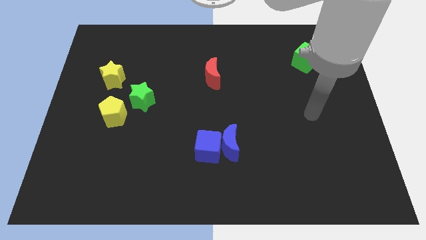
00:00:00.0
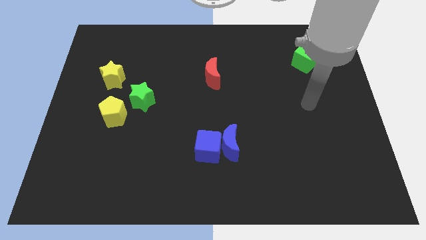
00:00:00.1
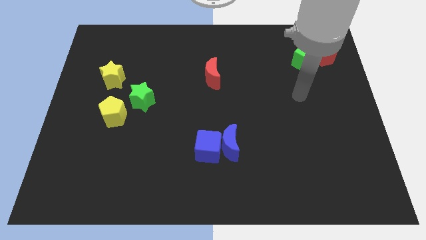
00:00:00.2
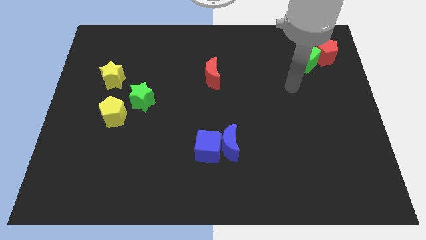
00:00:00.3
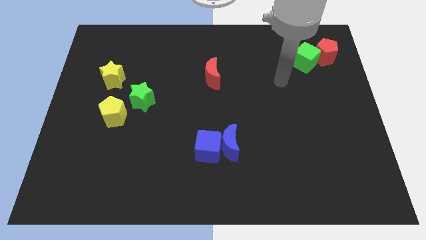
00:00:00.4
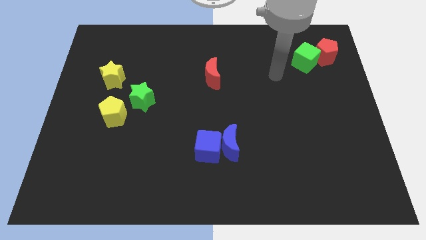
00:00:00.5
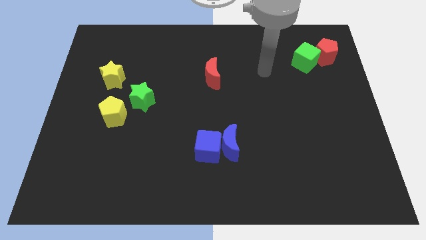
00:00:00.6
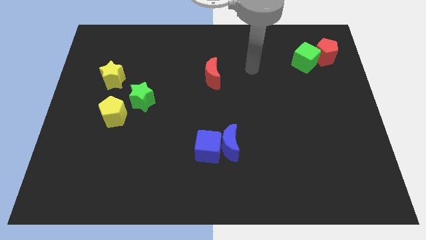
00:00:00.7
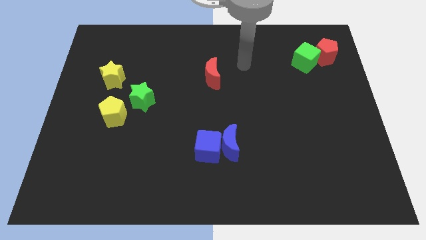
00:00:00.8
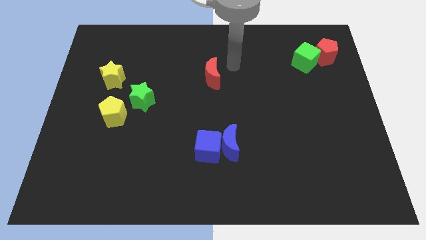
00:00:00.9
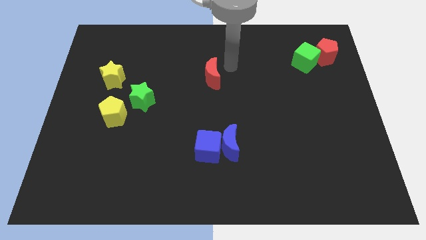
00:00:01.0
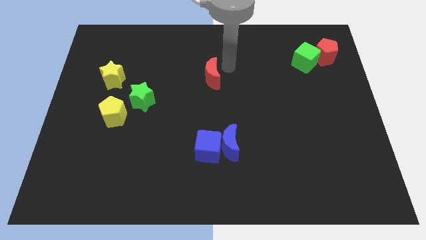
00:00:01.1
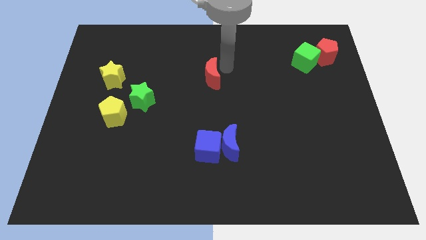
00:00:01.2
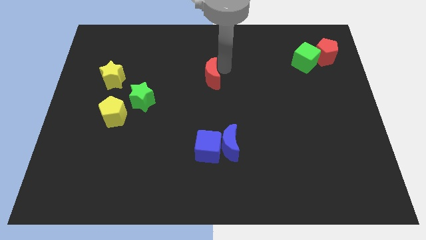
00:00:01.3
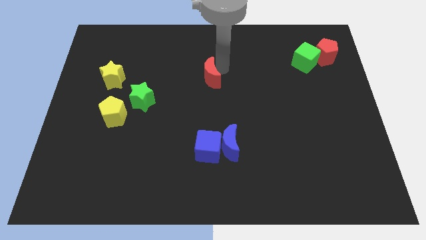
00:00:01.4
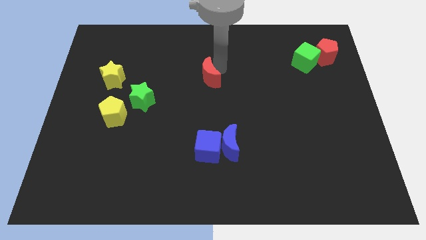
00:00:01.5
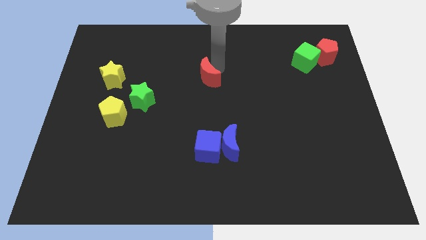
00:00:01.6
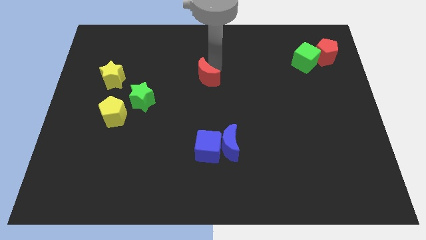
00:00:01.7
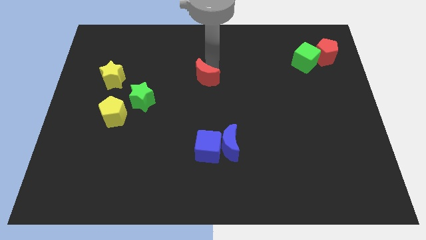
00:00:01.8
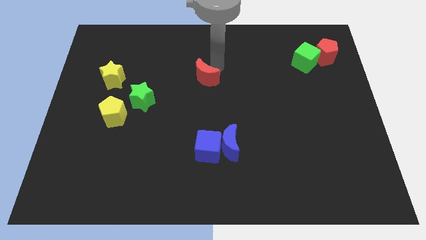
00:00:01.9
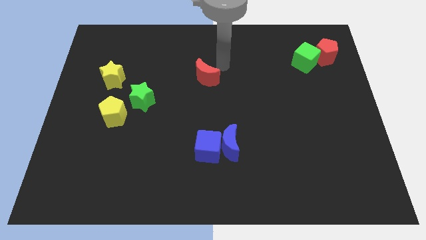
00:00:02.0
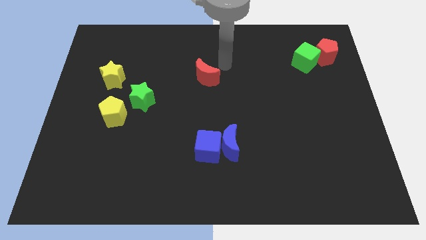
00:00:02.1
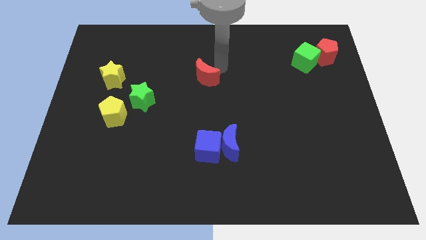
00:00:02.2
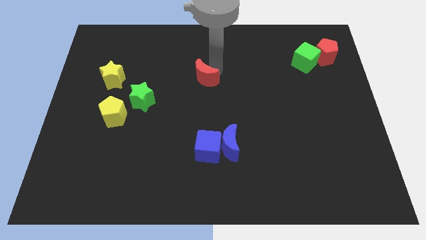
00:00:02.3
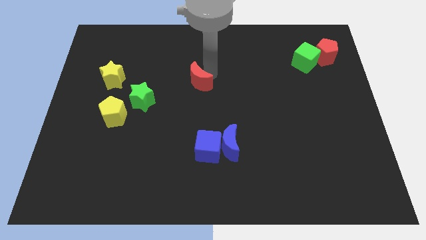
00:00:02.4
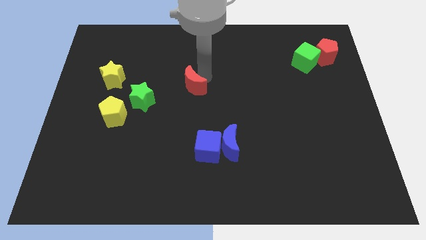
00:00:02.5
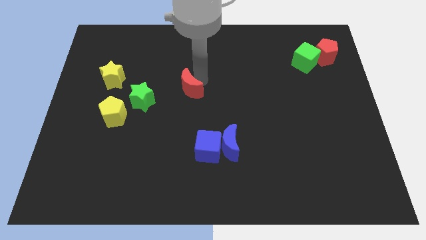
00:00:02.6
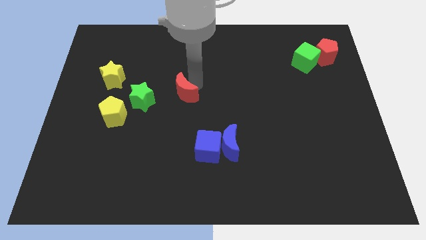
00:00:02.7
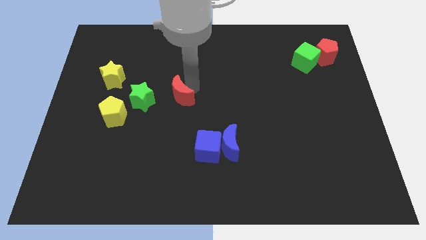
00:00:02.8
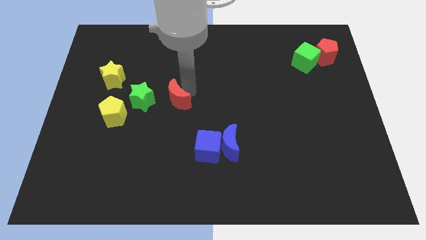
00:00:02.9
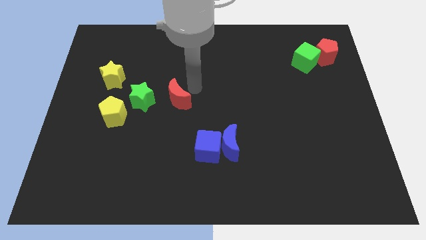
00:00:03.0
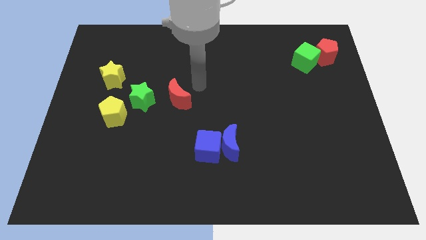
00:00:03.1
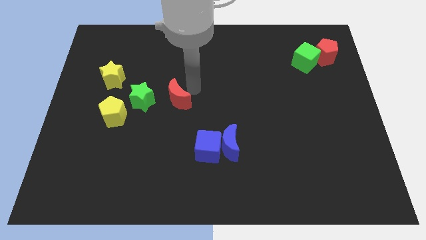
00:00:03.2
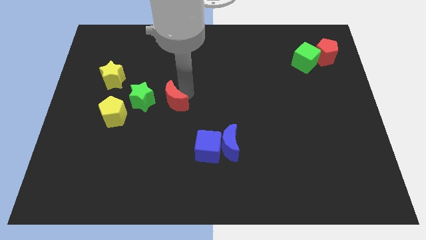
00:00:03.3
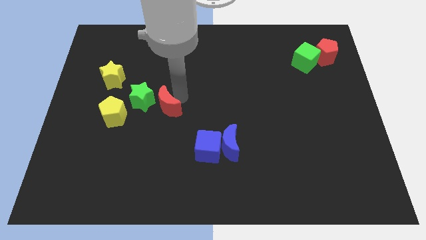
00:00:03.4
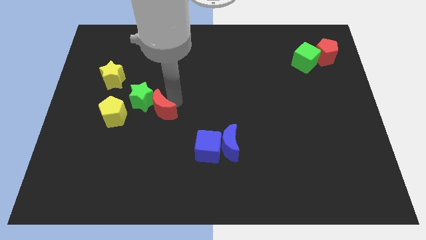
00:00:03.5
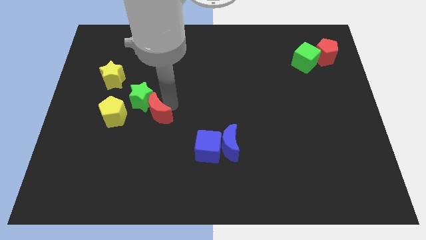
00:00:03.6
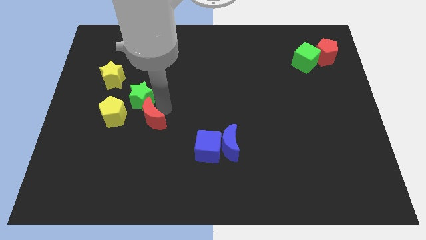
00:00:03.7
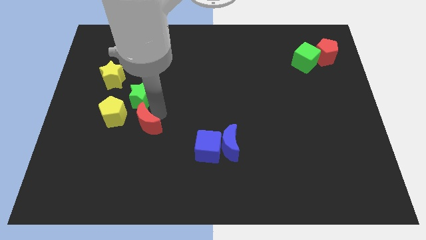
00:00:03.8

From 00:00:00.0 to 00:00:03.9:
push the red moon diagonally downwards and to the left

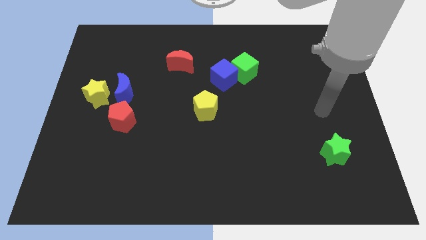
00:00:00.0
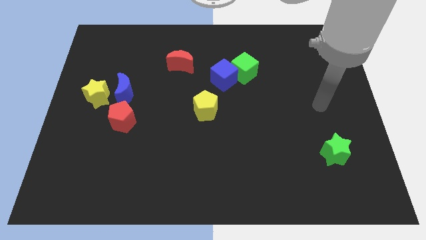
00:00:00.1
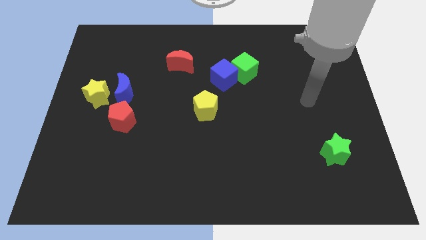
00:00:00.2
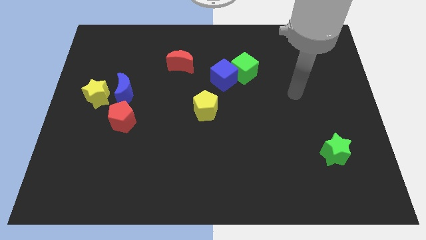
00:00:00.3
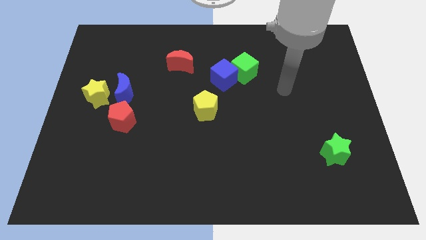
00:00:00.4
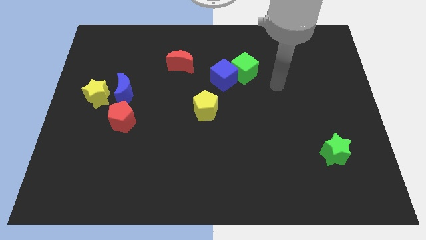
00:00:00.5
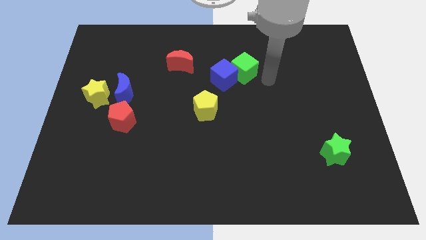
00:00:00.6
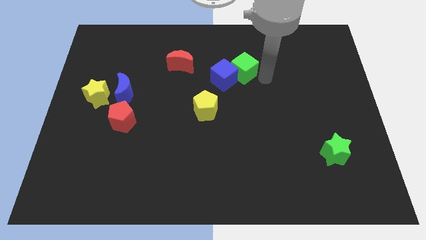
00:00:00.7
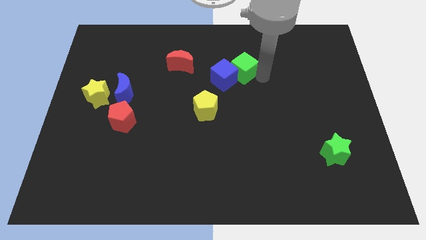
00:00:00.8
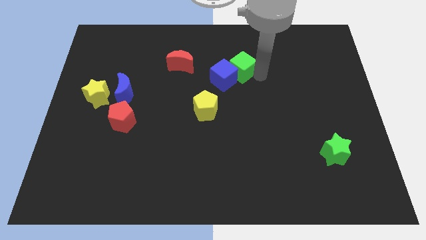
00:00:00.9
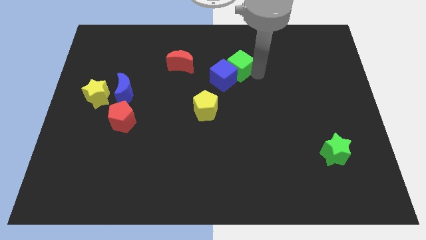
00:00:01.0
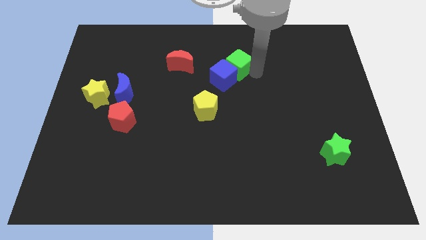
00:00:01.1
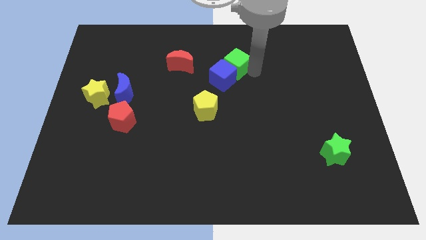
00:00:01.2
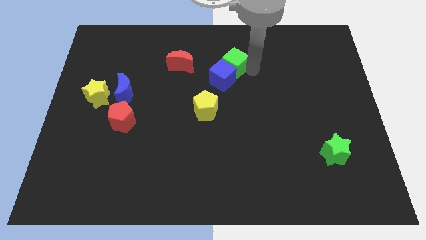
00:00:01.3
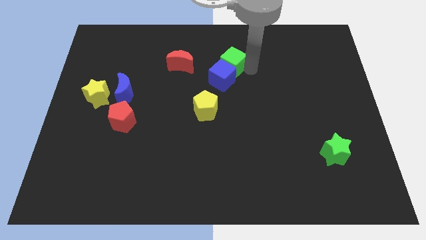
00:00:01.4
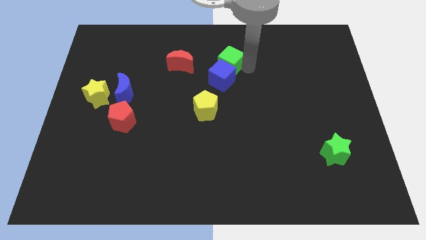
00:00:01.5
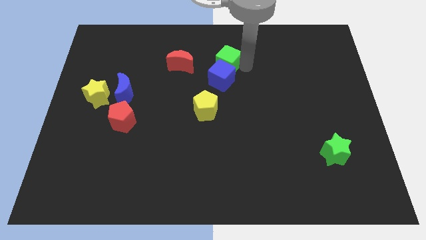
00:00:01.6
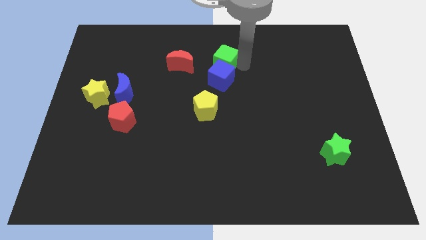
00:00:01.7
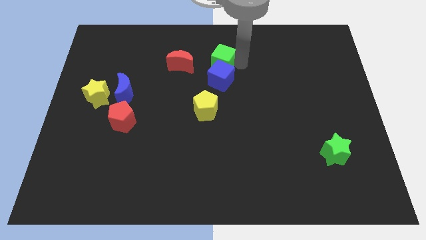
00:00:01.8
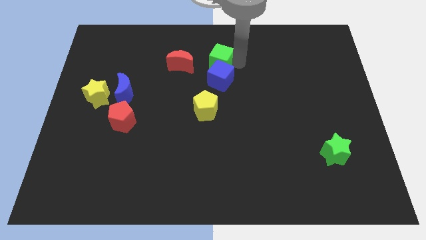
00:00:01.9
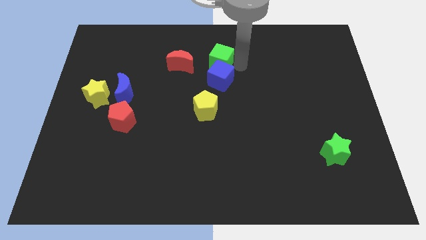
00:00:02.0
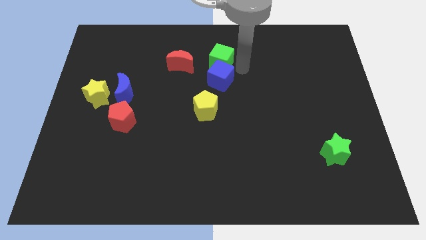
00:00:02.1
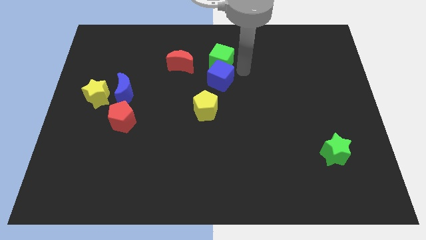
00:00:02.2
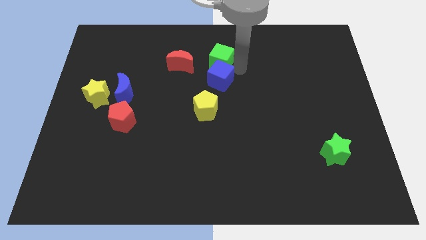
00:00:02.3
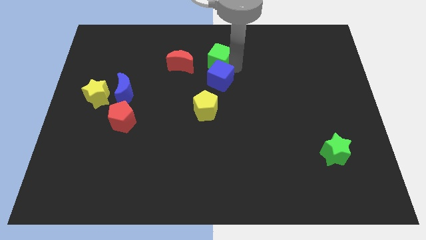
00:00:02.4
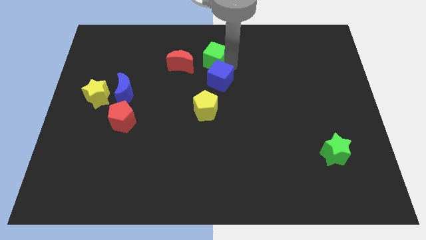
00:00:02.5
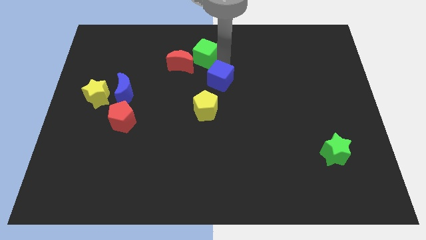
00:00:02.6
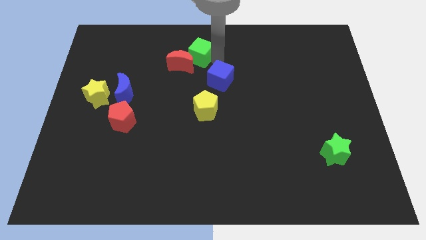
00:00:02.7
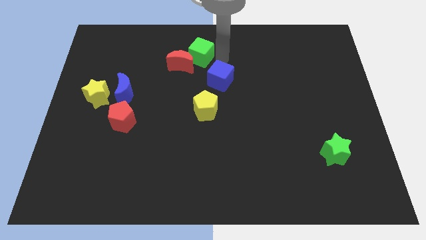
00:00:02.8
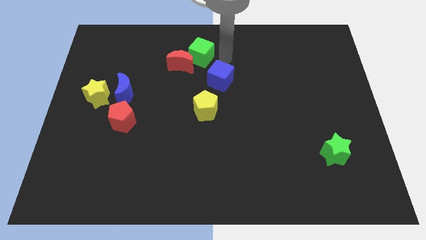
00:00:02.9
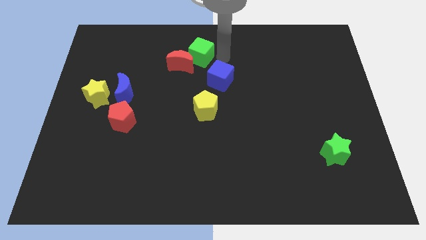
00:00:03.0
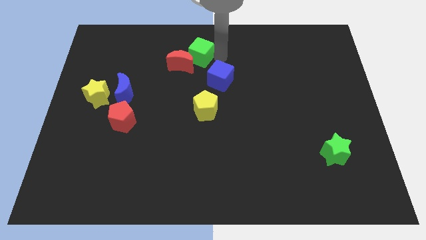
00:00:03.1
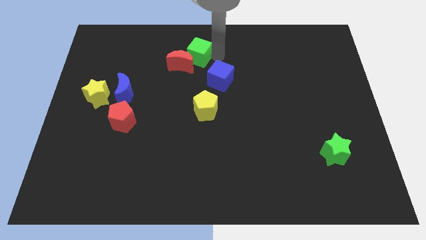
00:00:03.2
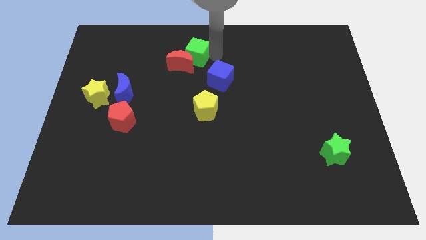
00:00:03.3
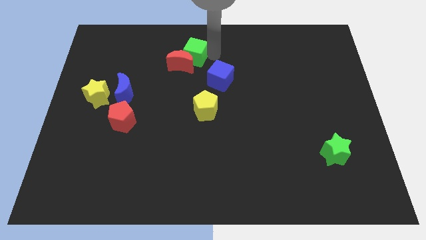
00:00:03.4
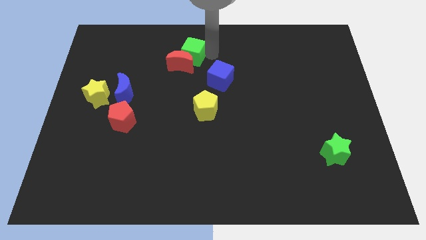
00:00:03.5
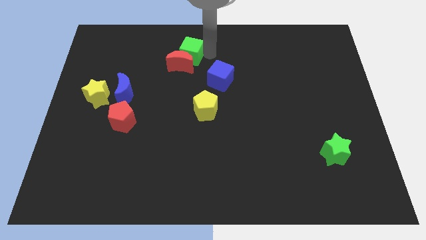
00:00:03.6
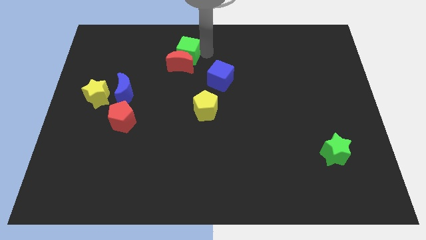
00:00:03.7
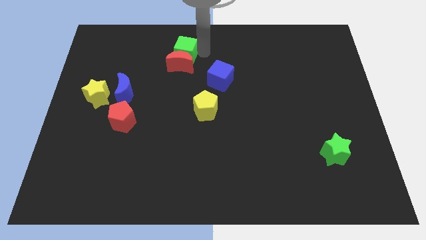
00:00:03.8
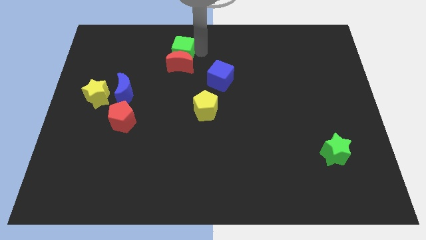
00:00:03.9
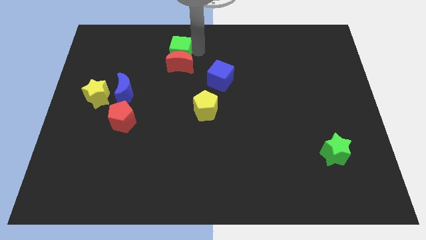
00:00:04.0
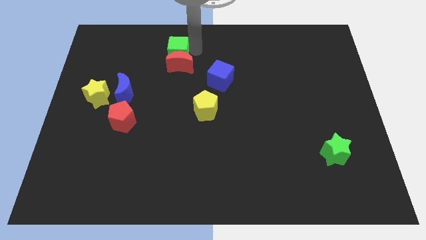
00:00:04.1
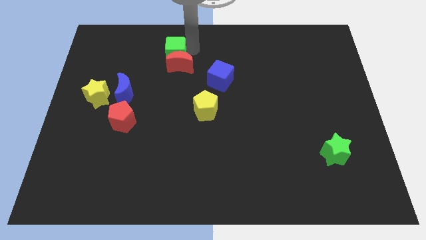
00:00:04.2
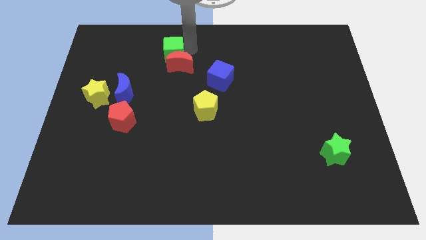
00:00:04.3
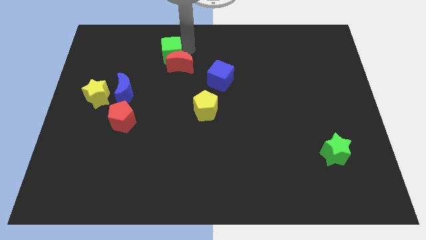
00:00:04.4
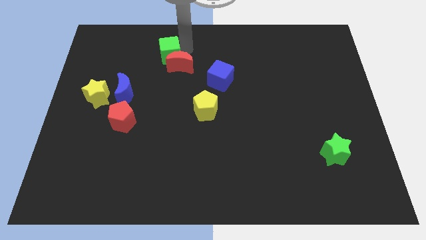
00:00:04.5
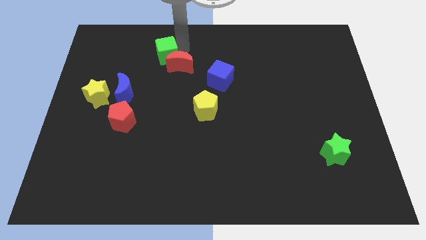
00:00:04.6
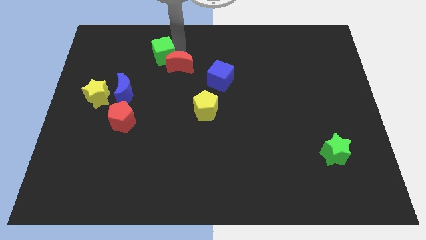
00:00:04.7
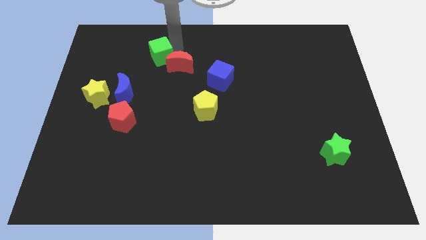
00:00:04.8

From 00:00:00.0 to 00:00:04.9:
slide the green cube left
